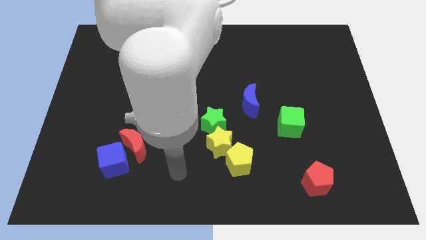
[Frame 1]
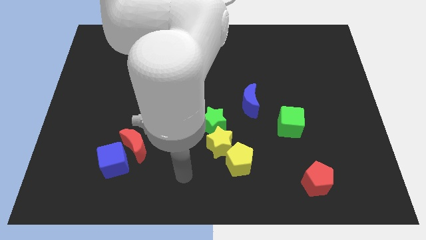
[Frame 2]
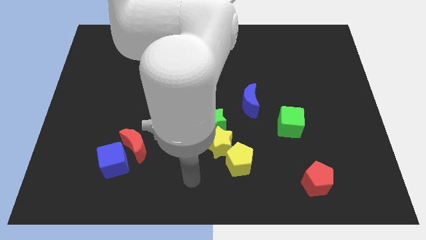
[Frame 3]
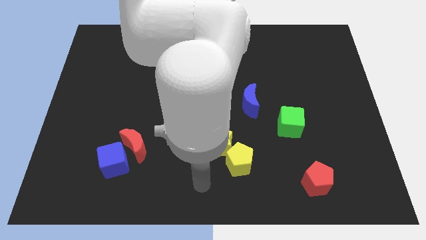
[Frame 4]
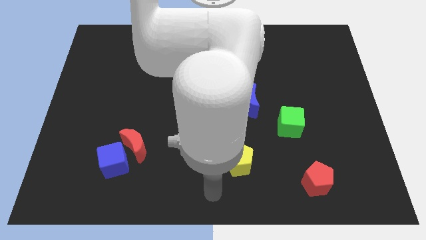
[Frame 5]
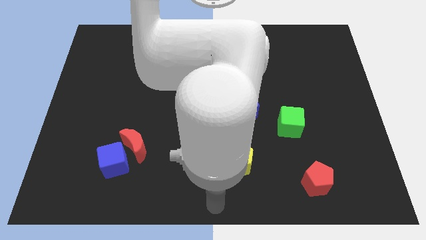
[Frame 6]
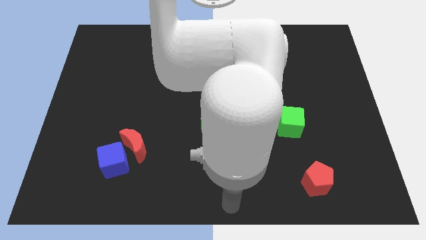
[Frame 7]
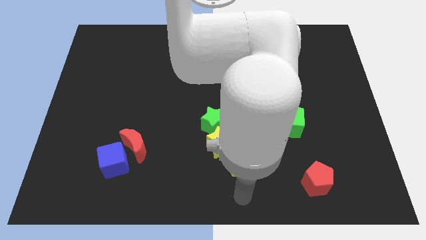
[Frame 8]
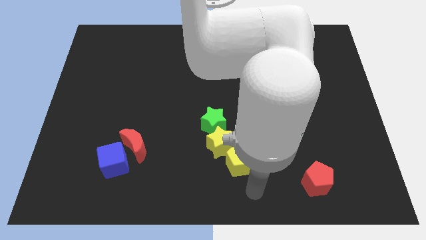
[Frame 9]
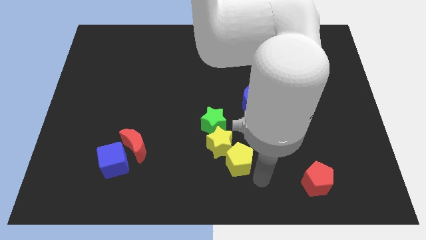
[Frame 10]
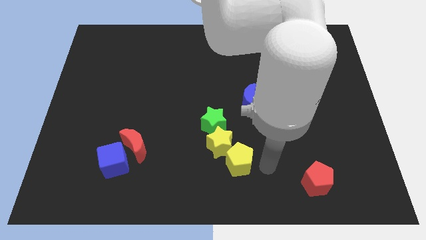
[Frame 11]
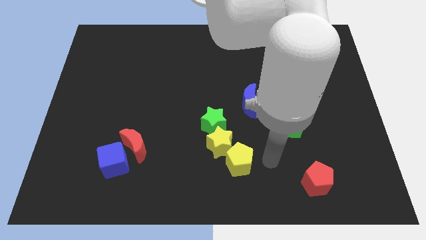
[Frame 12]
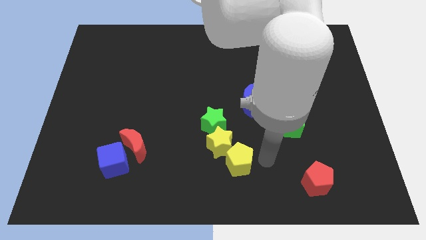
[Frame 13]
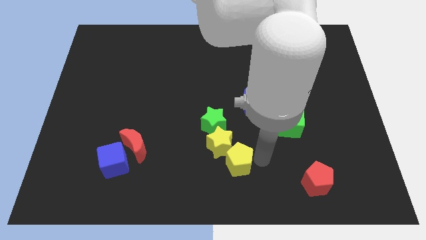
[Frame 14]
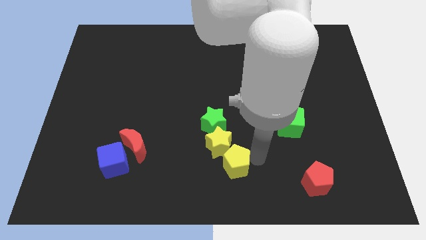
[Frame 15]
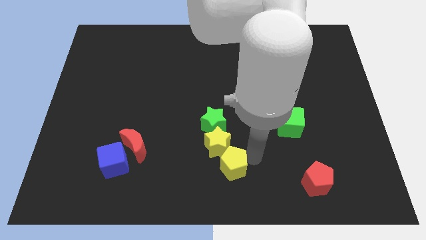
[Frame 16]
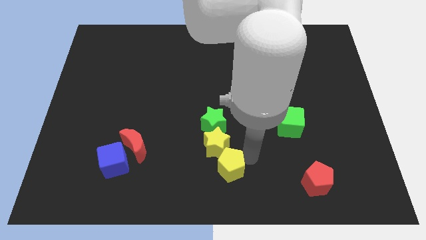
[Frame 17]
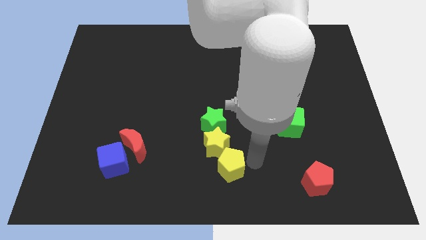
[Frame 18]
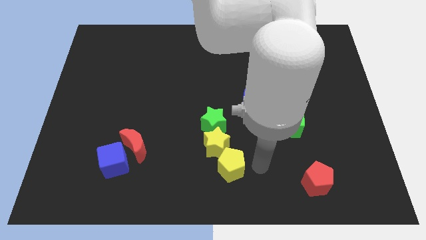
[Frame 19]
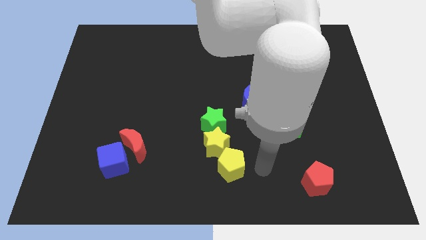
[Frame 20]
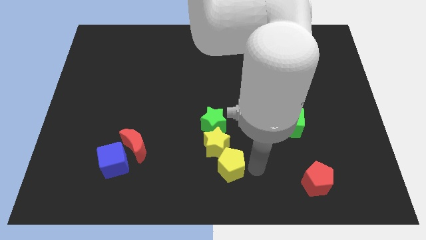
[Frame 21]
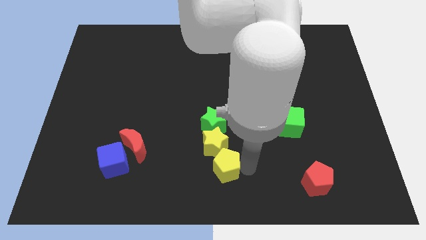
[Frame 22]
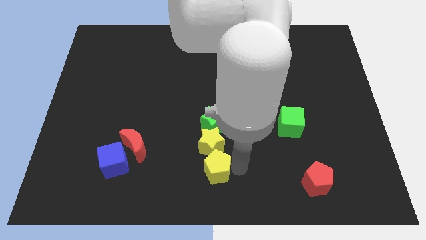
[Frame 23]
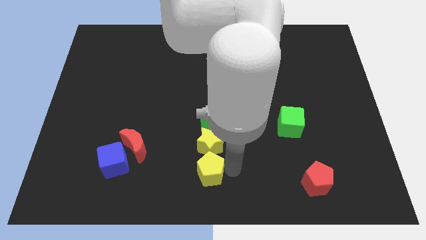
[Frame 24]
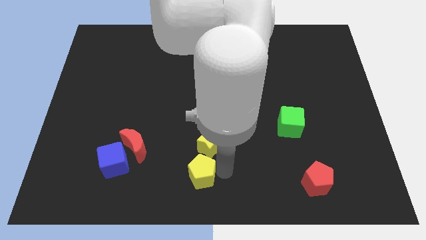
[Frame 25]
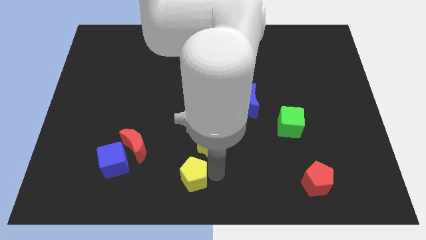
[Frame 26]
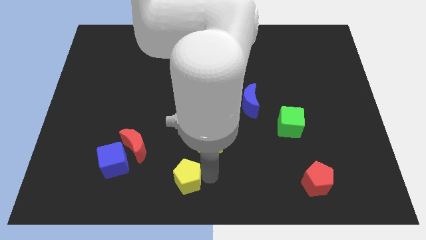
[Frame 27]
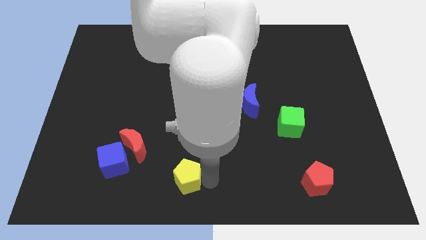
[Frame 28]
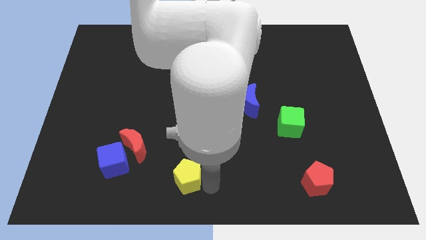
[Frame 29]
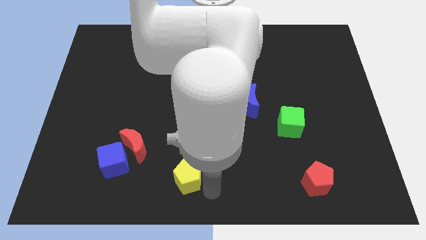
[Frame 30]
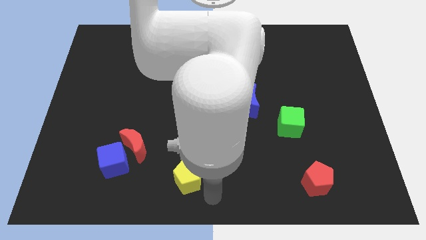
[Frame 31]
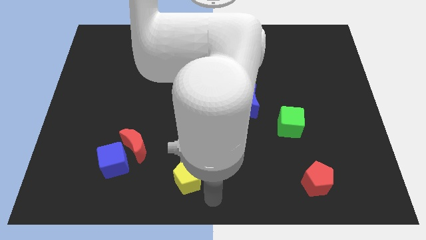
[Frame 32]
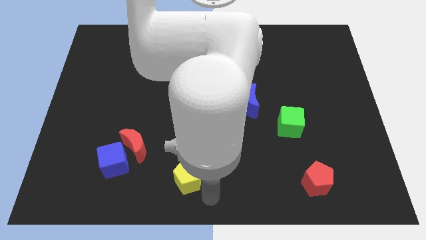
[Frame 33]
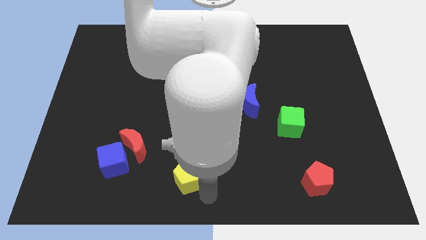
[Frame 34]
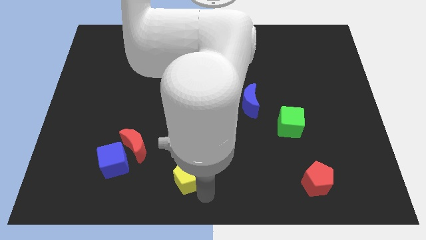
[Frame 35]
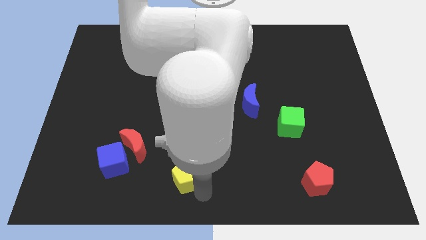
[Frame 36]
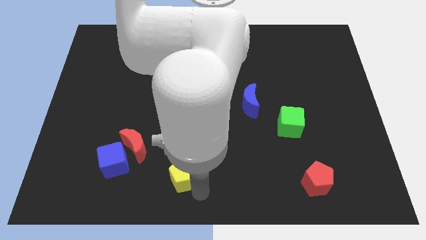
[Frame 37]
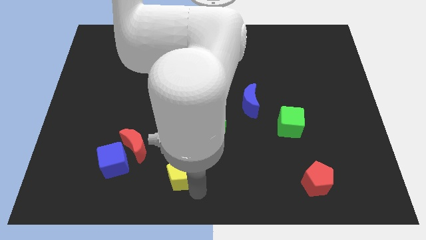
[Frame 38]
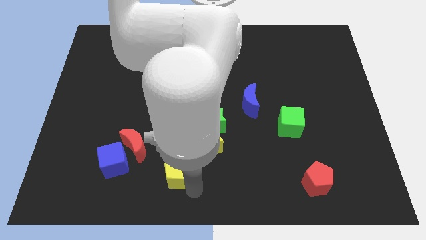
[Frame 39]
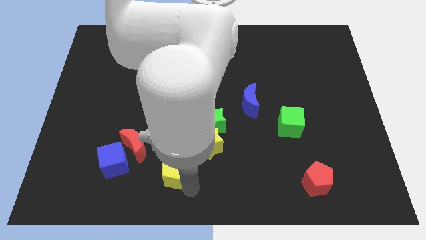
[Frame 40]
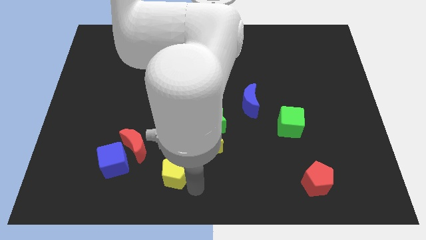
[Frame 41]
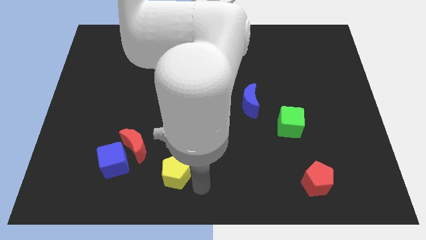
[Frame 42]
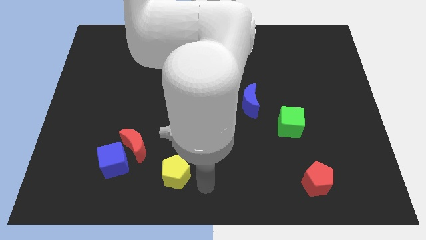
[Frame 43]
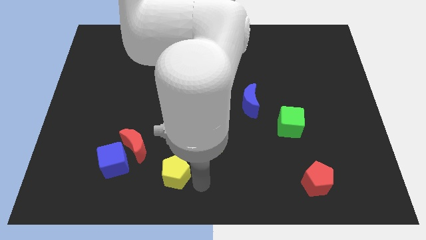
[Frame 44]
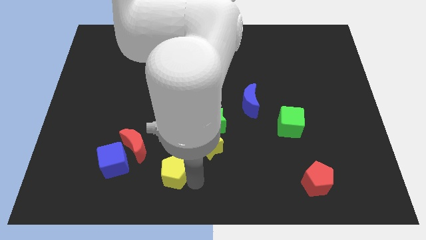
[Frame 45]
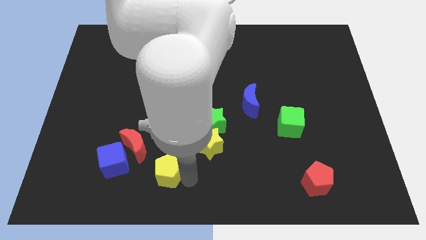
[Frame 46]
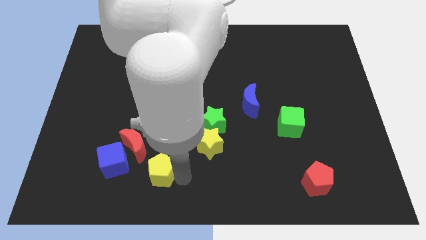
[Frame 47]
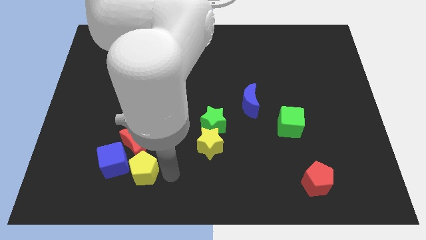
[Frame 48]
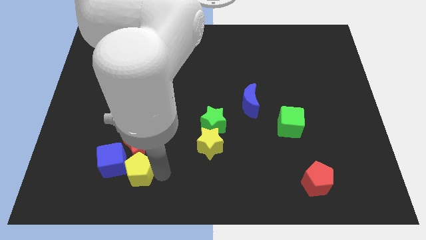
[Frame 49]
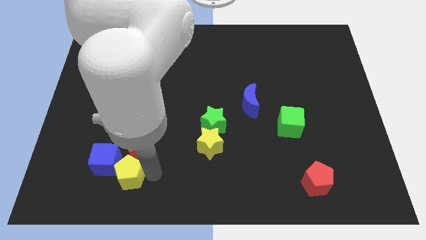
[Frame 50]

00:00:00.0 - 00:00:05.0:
push the yellow pentagon close to the blue cube

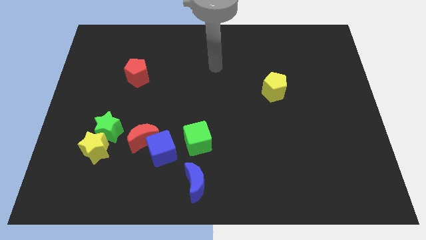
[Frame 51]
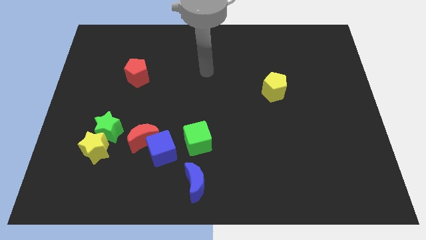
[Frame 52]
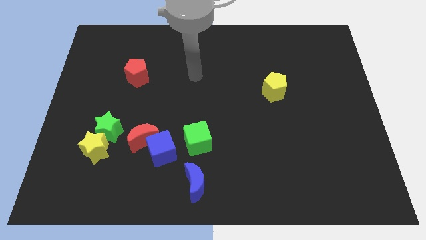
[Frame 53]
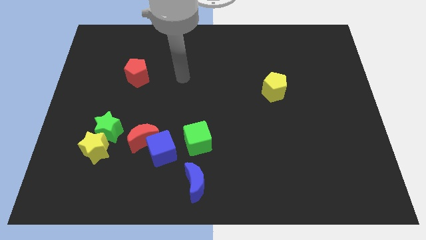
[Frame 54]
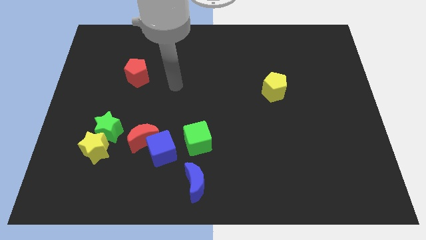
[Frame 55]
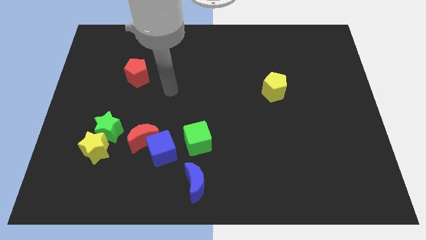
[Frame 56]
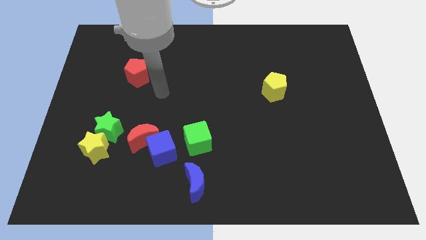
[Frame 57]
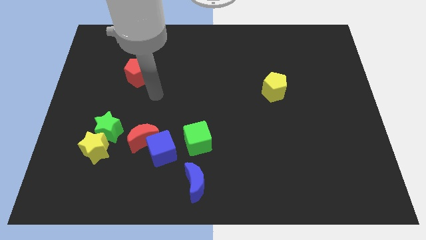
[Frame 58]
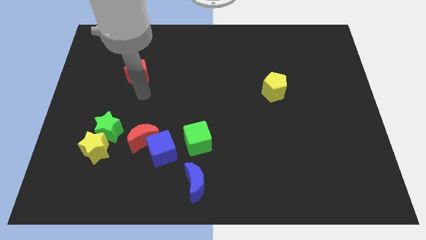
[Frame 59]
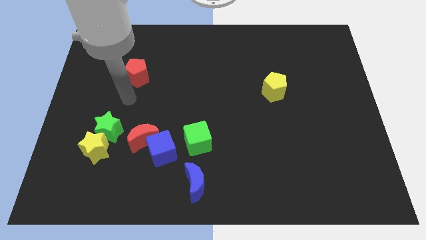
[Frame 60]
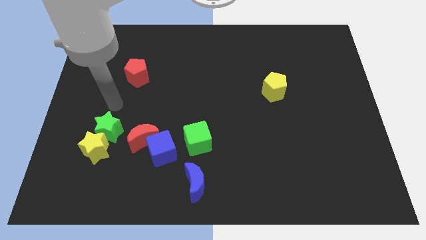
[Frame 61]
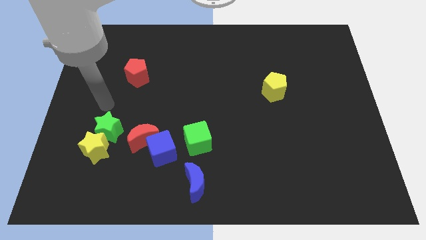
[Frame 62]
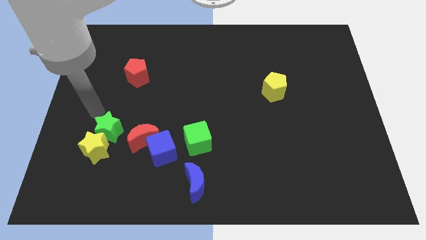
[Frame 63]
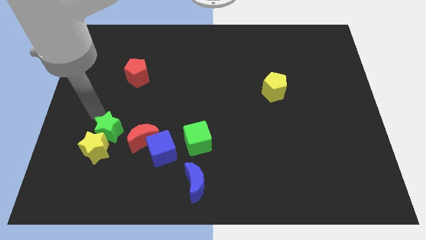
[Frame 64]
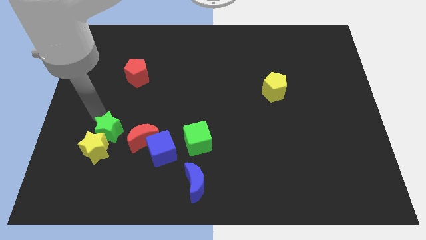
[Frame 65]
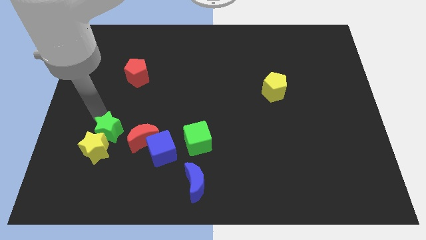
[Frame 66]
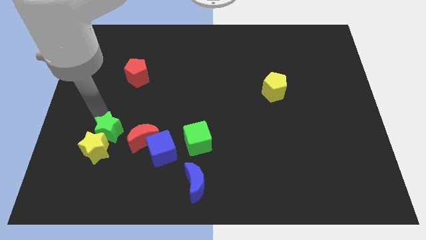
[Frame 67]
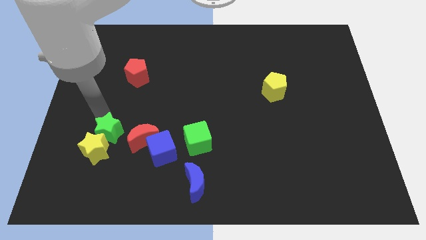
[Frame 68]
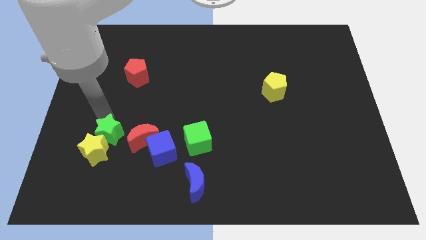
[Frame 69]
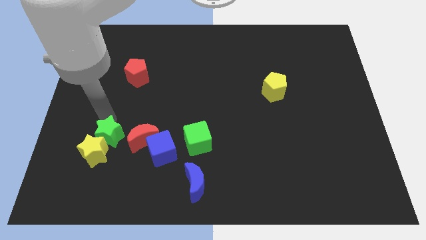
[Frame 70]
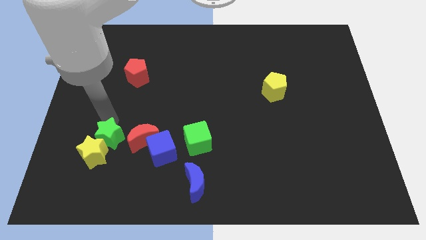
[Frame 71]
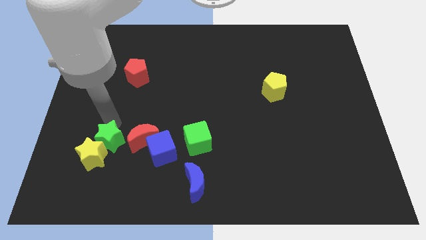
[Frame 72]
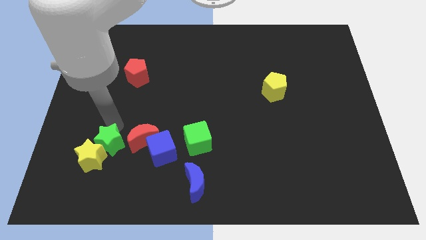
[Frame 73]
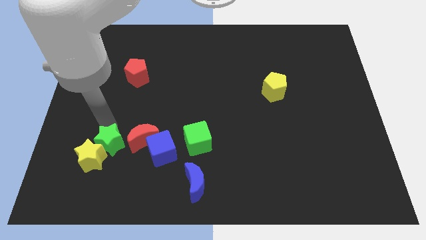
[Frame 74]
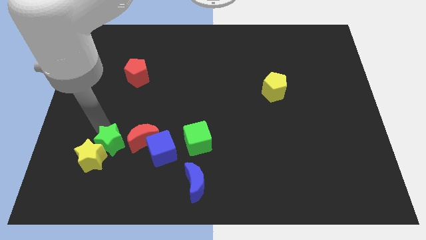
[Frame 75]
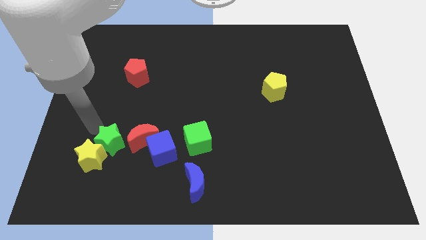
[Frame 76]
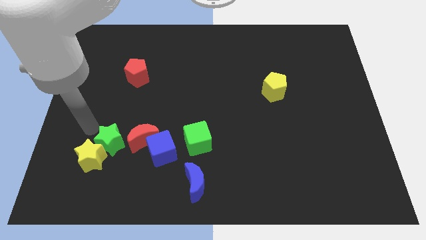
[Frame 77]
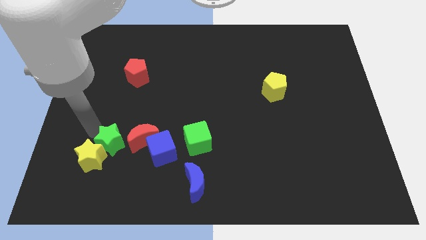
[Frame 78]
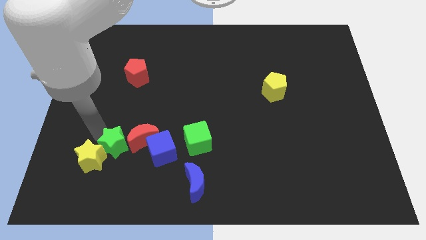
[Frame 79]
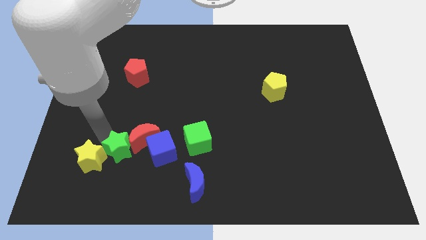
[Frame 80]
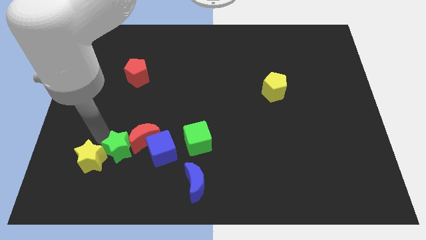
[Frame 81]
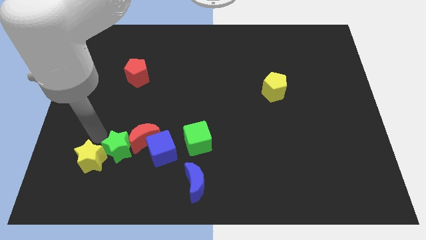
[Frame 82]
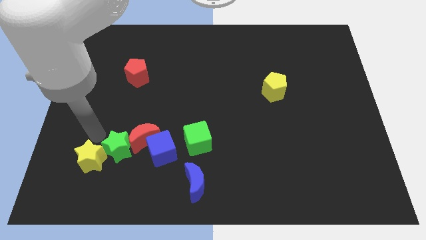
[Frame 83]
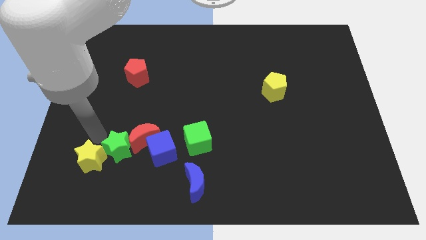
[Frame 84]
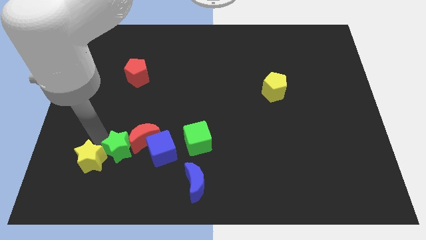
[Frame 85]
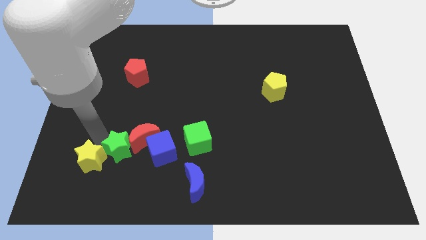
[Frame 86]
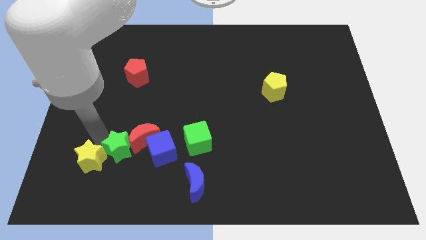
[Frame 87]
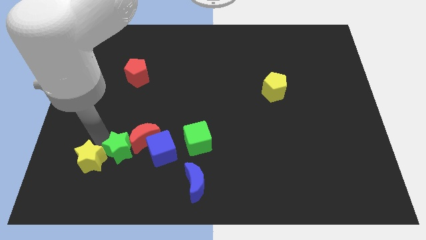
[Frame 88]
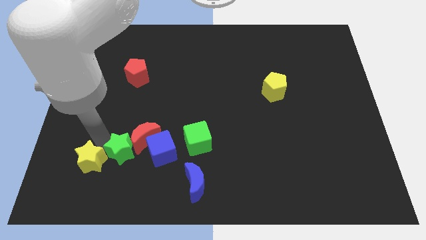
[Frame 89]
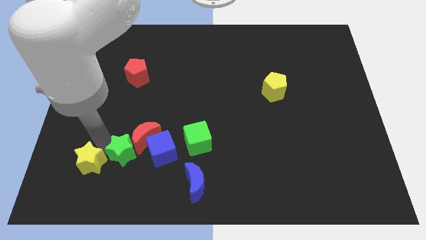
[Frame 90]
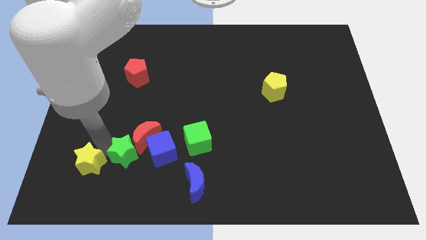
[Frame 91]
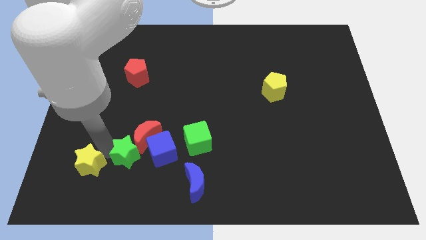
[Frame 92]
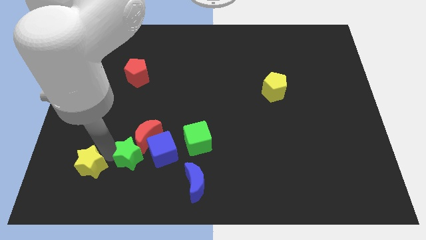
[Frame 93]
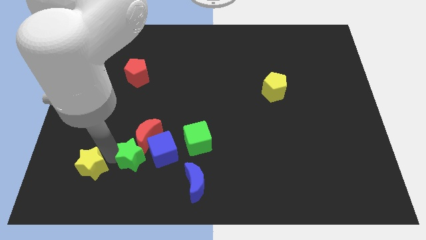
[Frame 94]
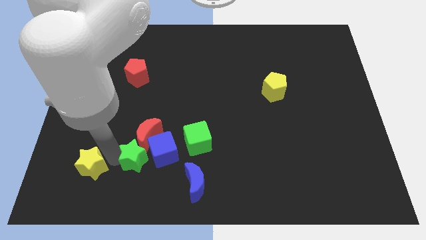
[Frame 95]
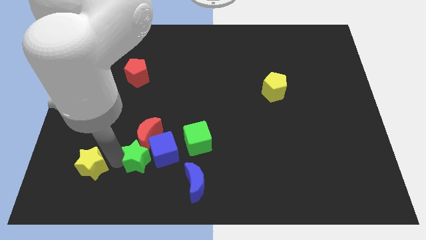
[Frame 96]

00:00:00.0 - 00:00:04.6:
move the green star next to the blue cube
